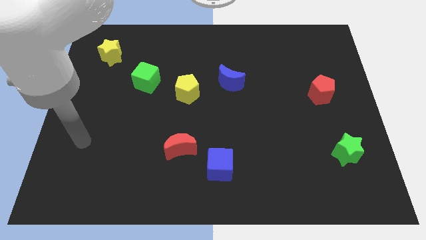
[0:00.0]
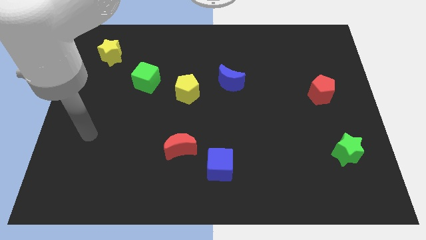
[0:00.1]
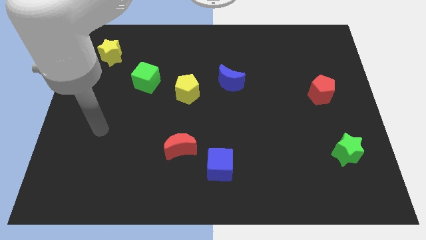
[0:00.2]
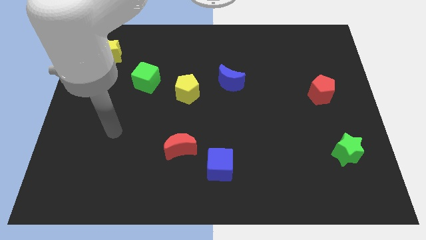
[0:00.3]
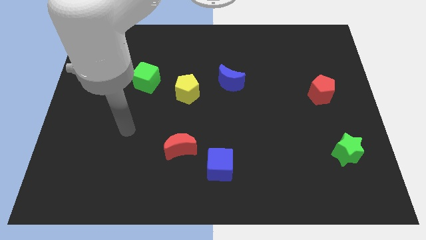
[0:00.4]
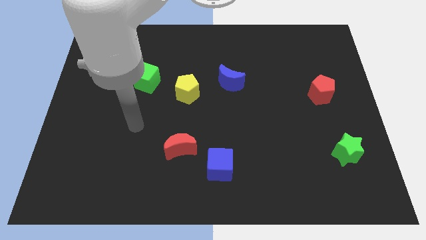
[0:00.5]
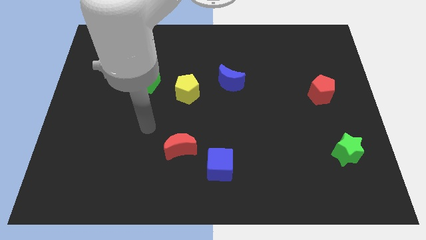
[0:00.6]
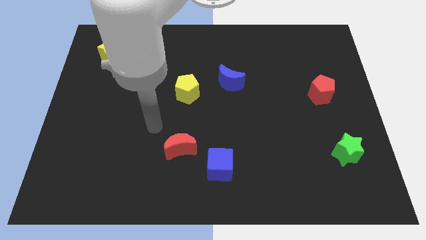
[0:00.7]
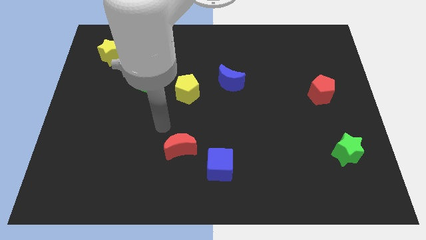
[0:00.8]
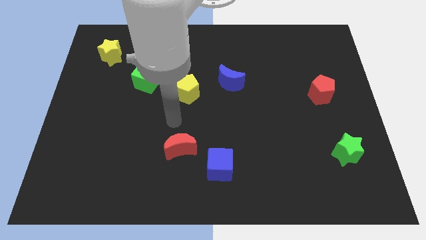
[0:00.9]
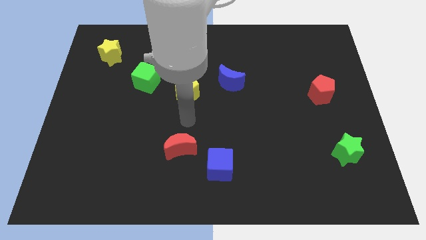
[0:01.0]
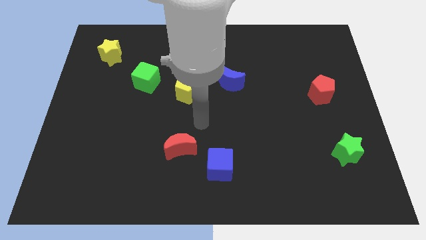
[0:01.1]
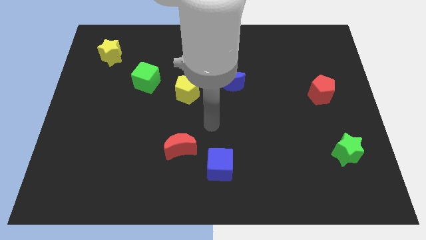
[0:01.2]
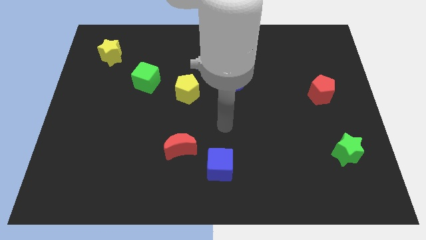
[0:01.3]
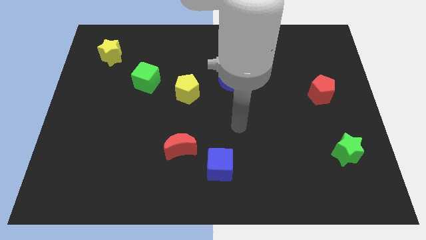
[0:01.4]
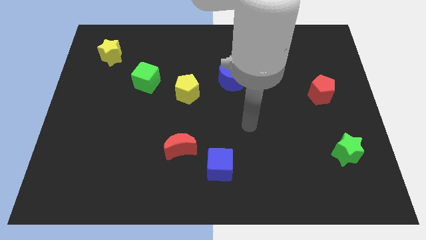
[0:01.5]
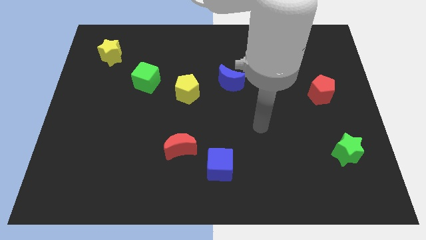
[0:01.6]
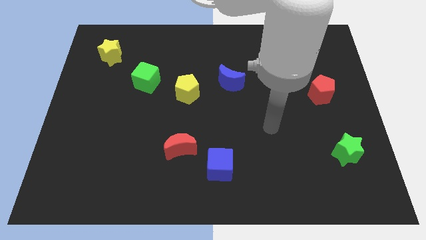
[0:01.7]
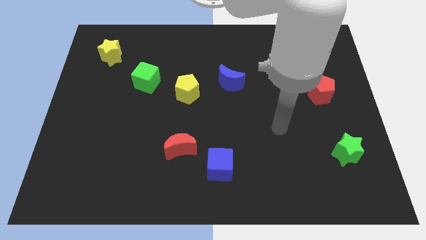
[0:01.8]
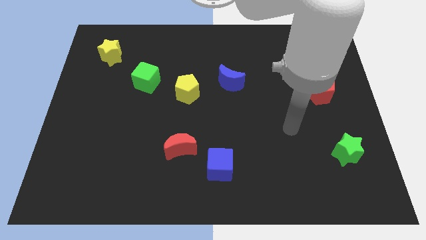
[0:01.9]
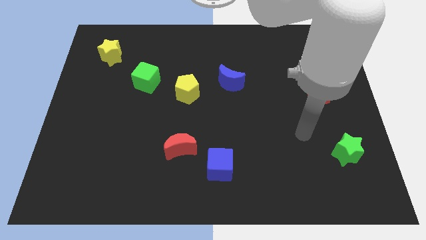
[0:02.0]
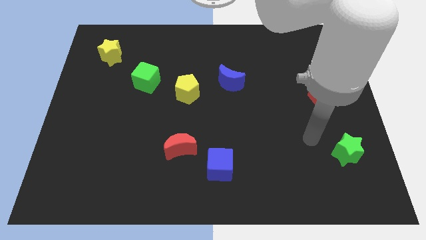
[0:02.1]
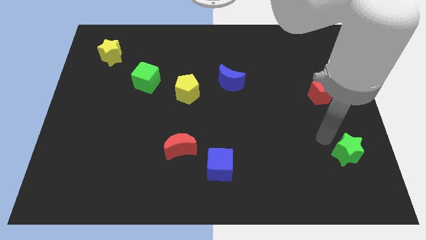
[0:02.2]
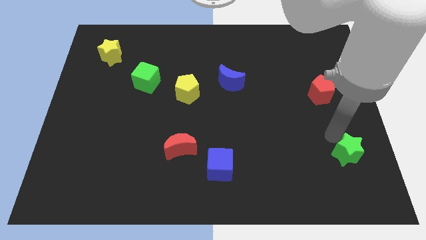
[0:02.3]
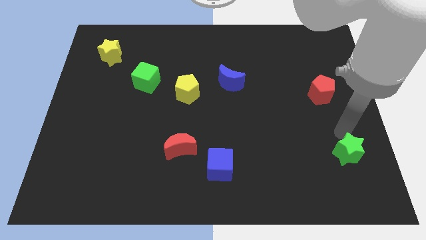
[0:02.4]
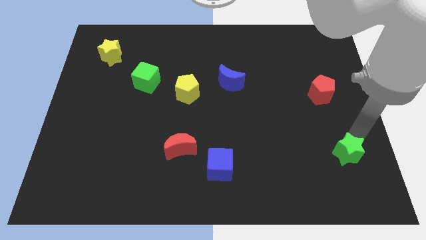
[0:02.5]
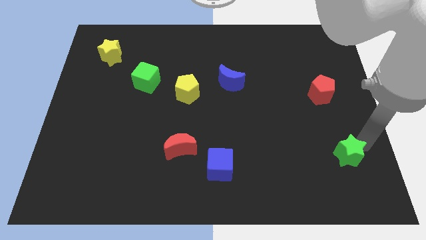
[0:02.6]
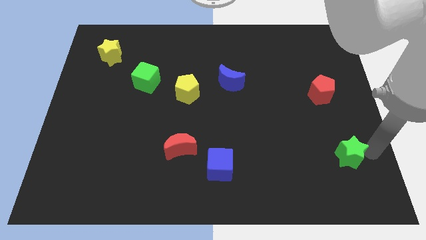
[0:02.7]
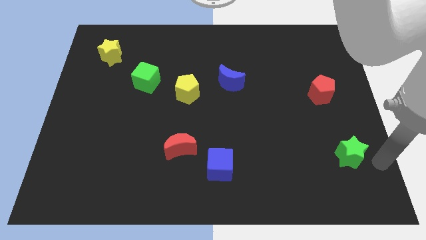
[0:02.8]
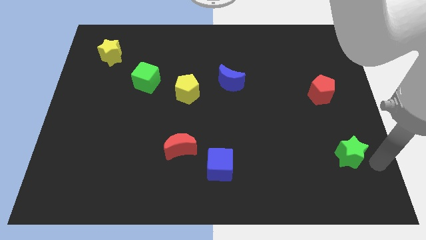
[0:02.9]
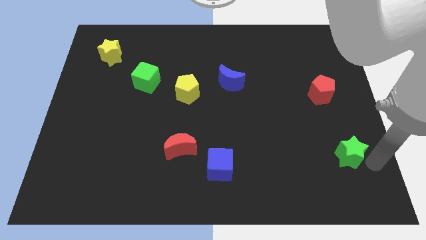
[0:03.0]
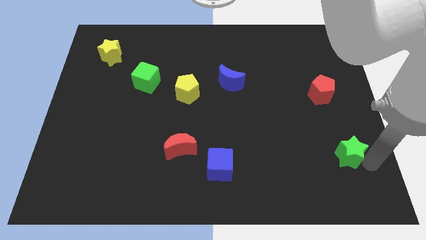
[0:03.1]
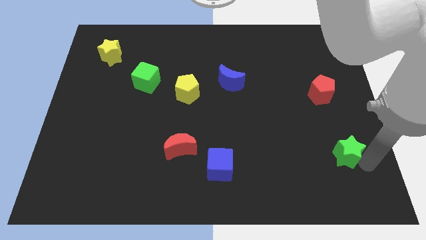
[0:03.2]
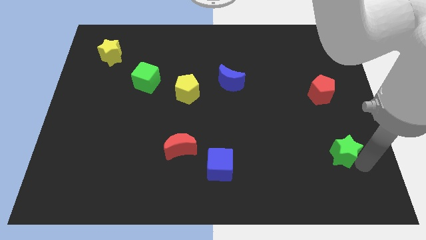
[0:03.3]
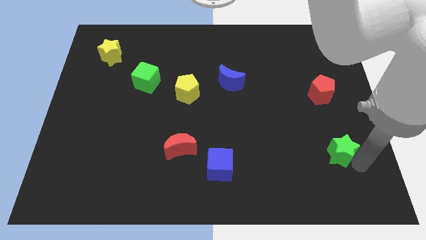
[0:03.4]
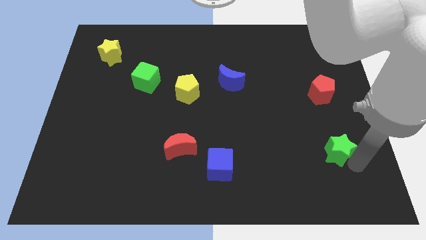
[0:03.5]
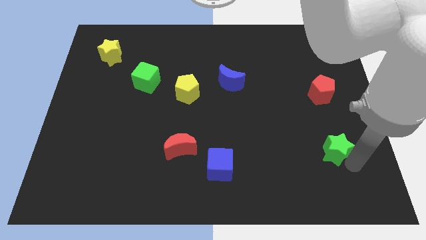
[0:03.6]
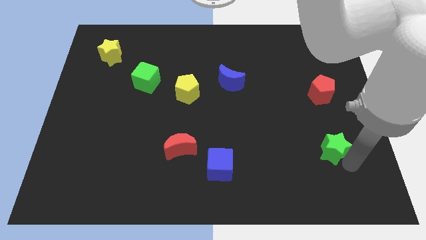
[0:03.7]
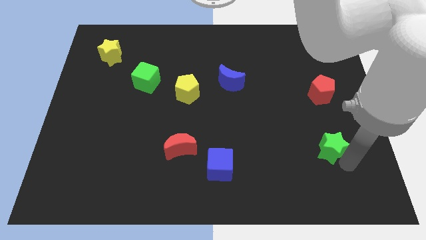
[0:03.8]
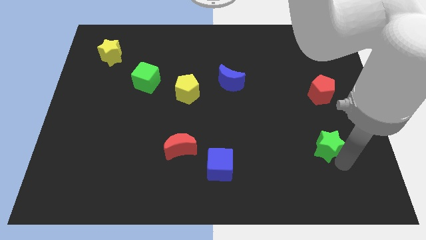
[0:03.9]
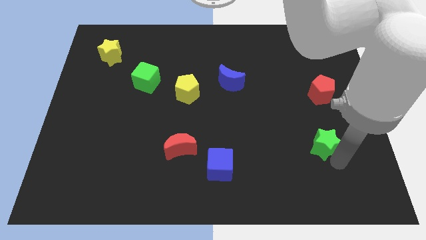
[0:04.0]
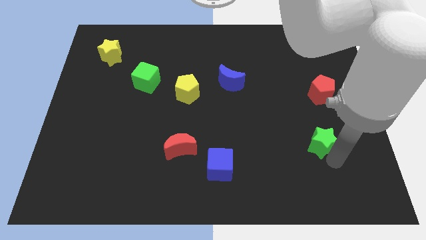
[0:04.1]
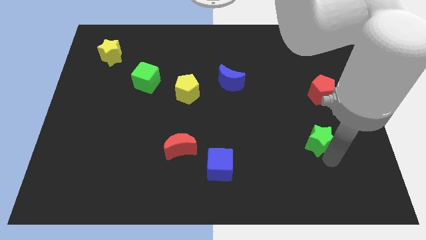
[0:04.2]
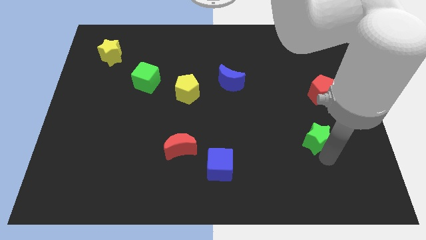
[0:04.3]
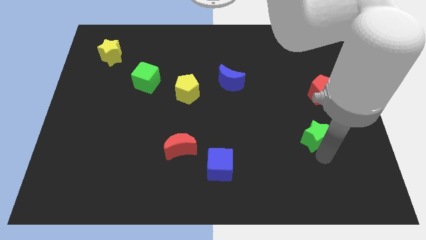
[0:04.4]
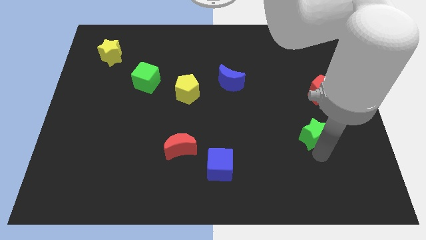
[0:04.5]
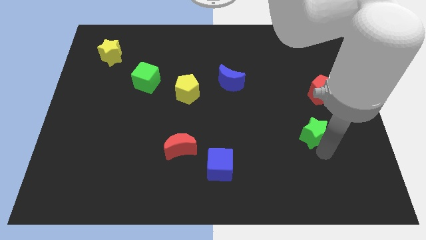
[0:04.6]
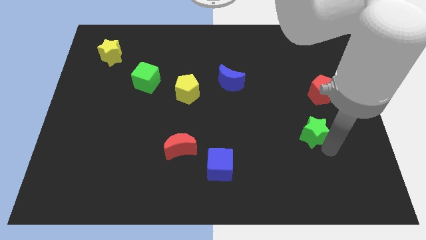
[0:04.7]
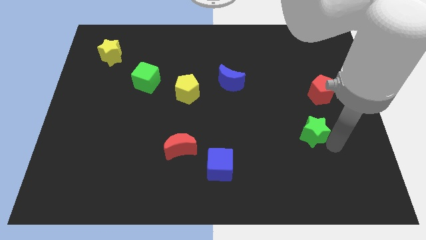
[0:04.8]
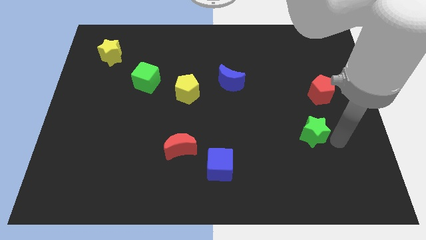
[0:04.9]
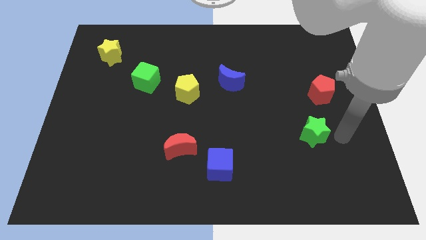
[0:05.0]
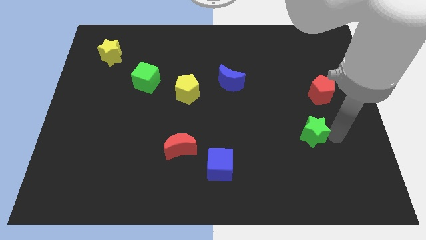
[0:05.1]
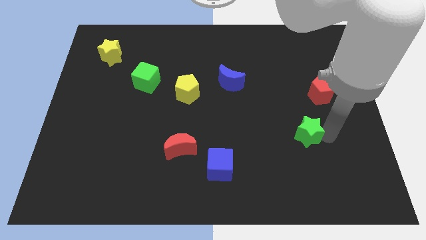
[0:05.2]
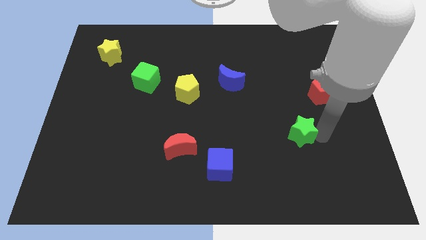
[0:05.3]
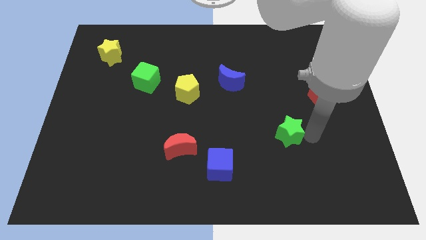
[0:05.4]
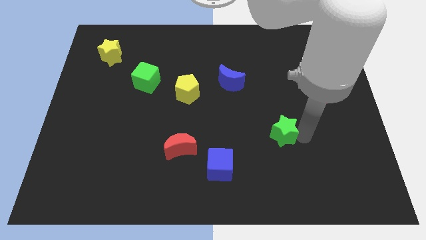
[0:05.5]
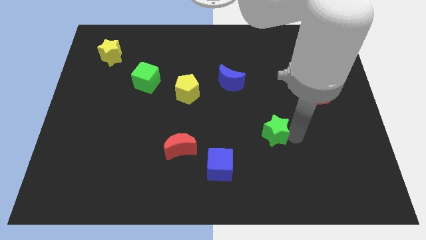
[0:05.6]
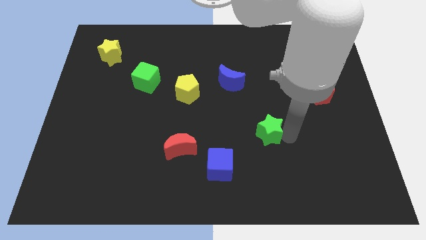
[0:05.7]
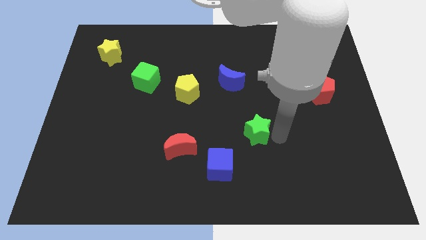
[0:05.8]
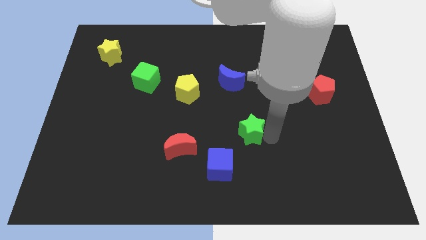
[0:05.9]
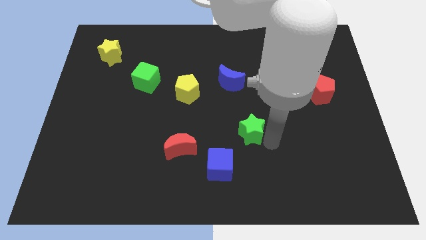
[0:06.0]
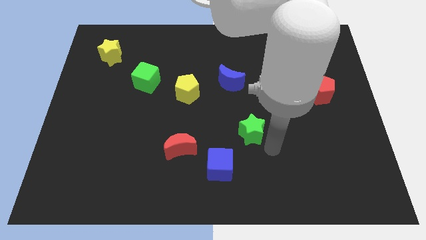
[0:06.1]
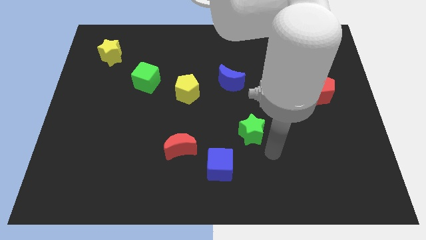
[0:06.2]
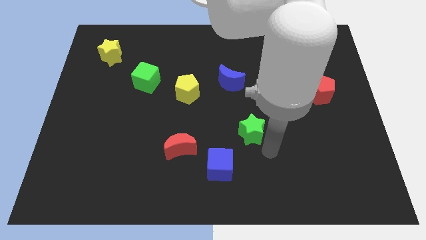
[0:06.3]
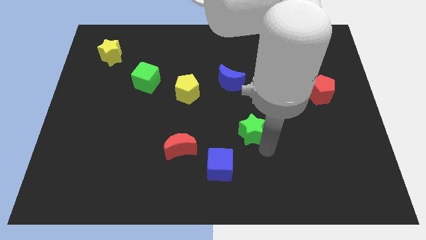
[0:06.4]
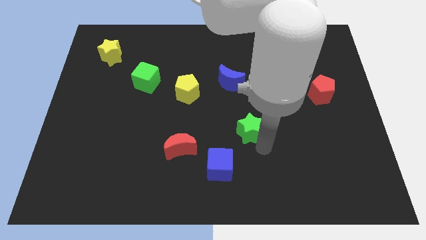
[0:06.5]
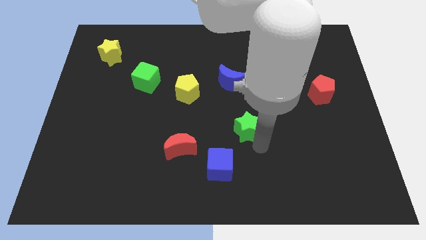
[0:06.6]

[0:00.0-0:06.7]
put the green star to the bottom of the blue moon

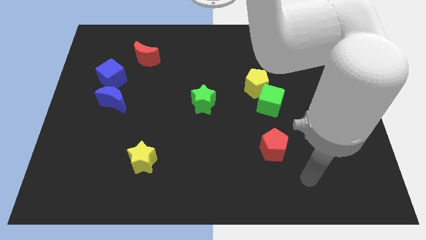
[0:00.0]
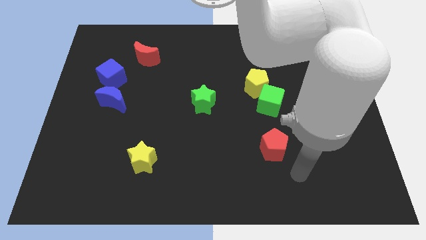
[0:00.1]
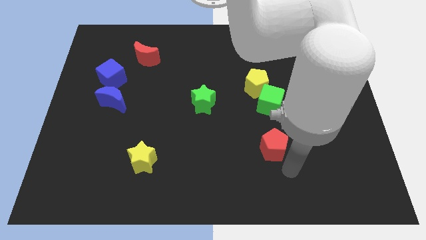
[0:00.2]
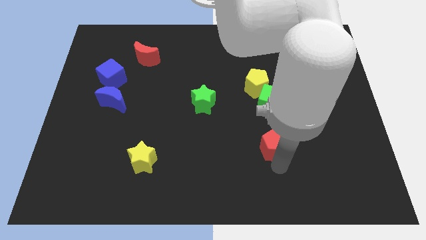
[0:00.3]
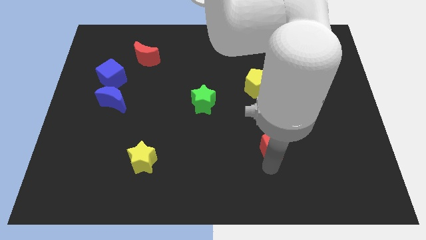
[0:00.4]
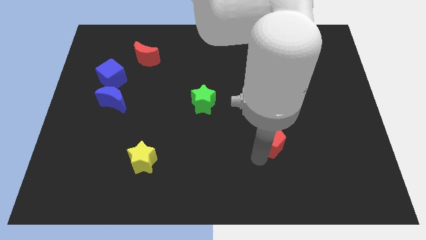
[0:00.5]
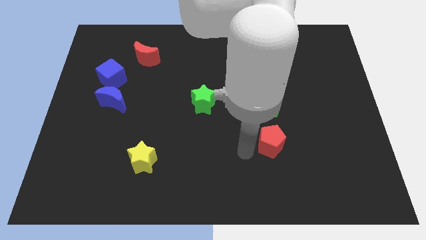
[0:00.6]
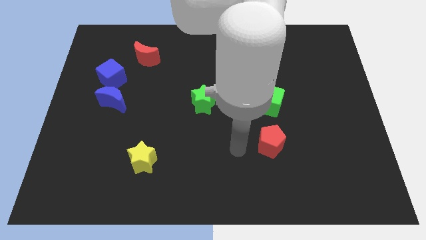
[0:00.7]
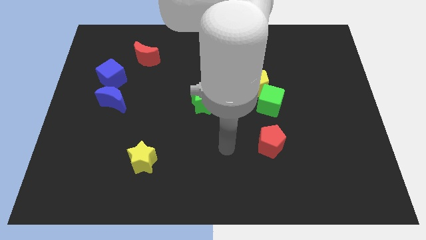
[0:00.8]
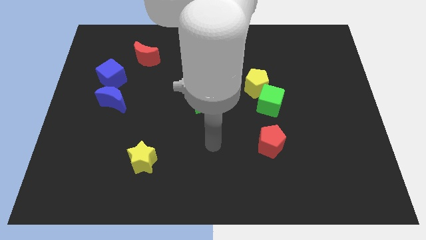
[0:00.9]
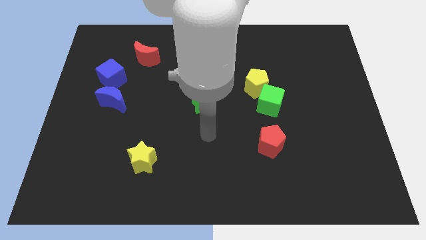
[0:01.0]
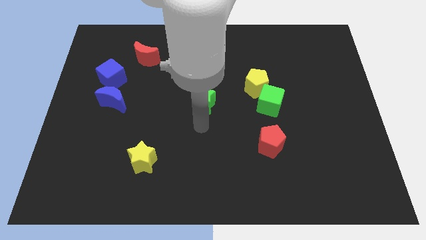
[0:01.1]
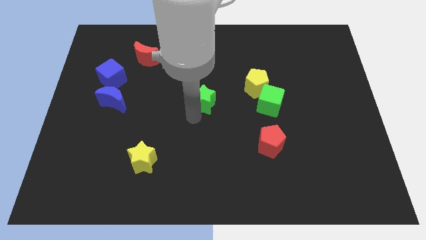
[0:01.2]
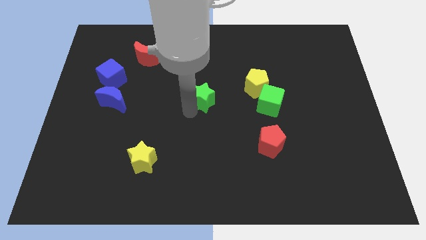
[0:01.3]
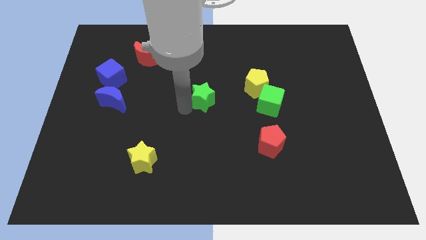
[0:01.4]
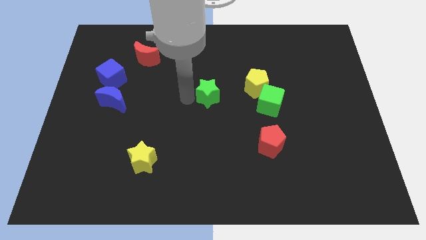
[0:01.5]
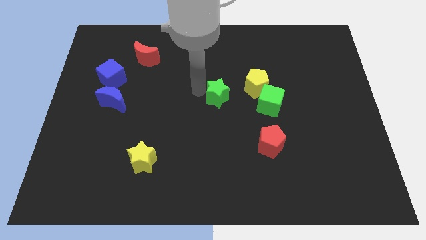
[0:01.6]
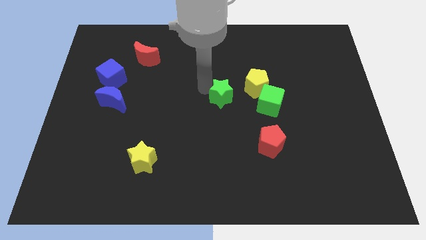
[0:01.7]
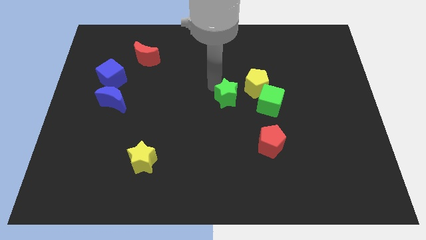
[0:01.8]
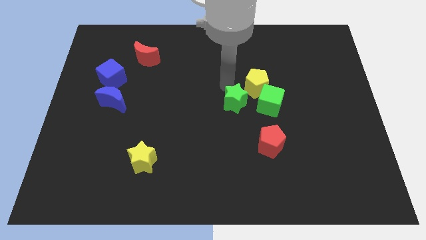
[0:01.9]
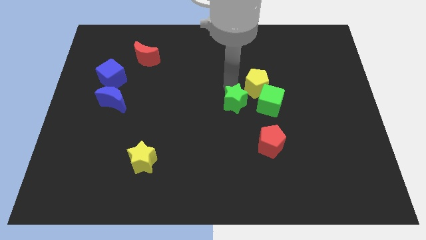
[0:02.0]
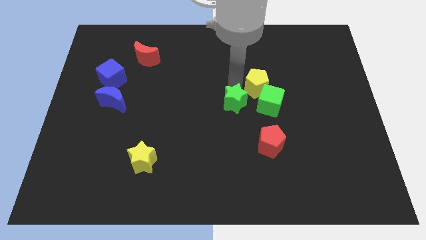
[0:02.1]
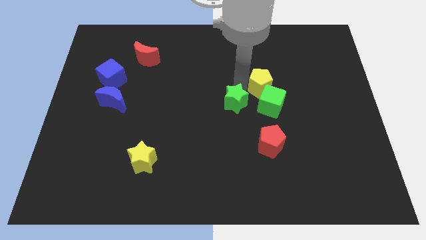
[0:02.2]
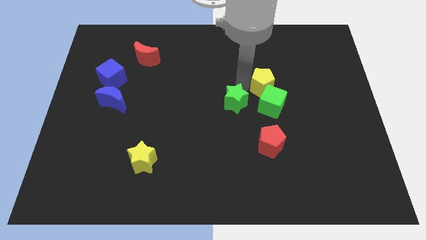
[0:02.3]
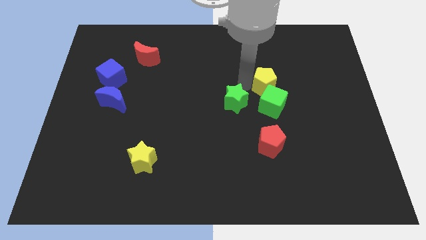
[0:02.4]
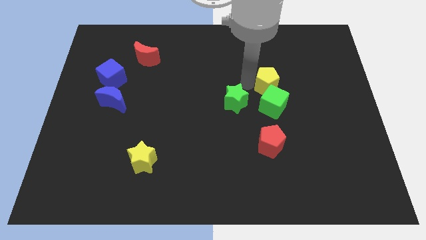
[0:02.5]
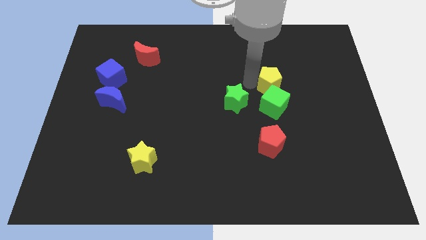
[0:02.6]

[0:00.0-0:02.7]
push the yellow pentagon to the top right of the green cube
